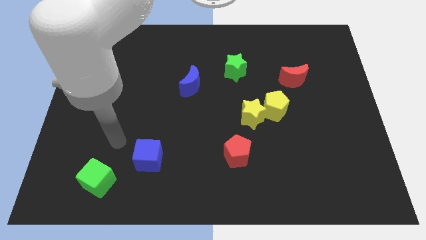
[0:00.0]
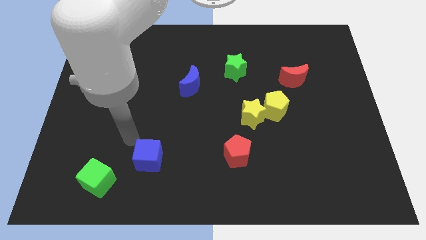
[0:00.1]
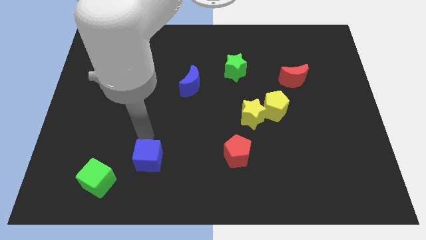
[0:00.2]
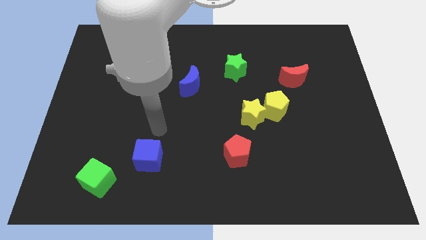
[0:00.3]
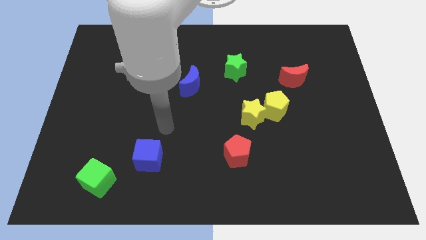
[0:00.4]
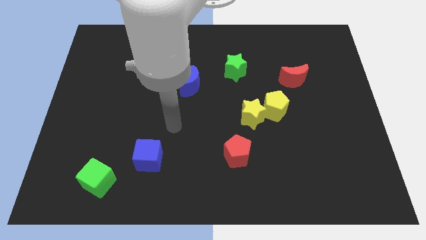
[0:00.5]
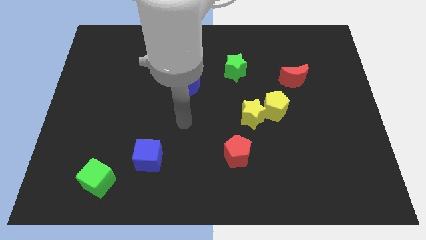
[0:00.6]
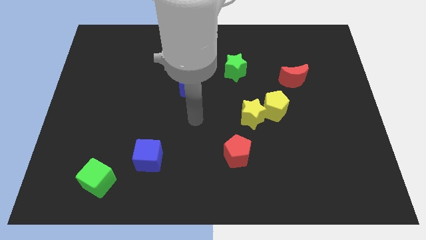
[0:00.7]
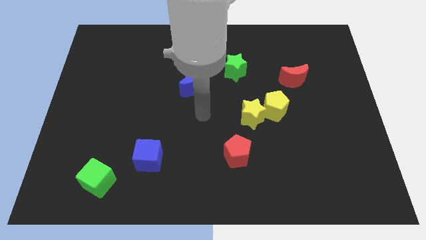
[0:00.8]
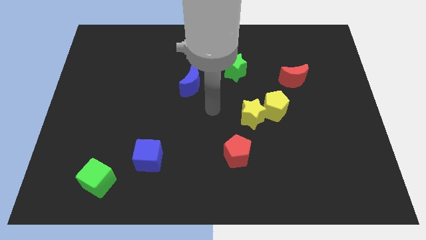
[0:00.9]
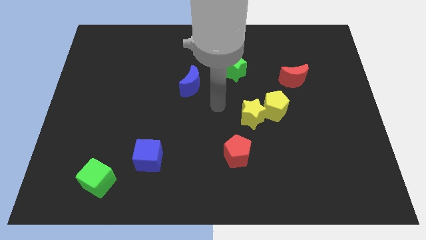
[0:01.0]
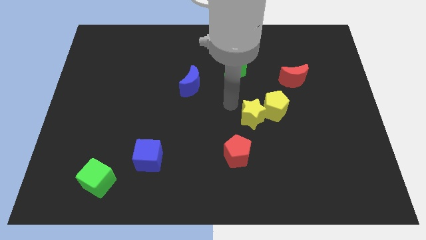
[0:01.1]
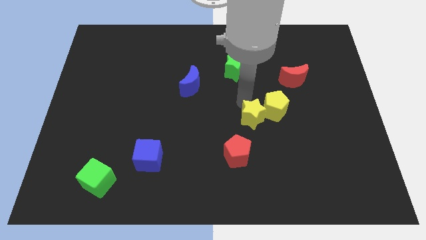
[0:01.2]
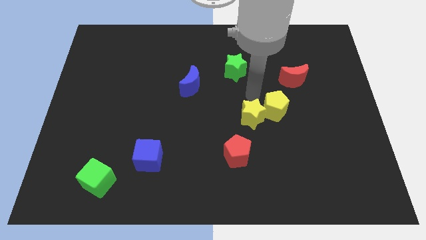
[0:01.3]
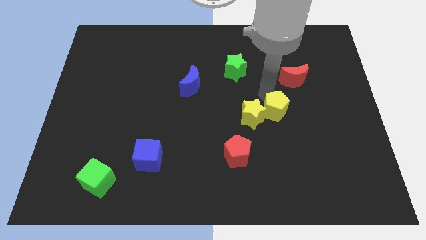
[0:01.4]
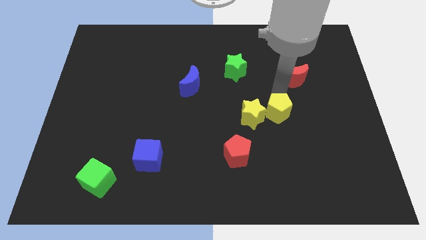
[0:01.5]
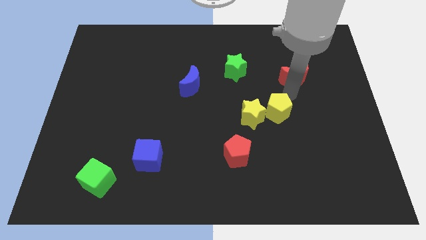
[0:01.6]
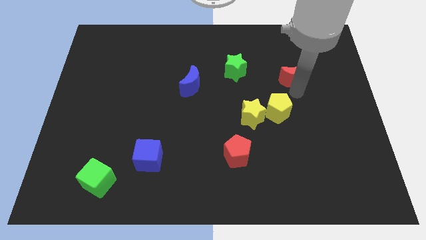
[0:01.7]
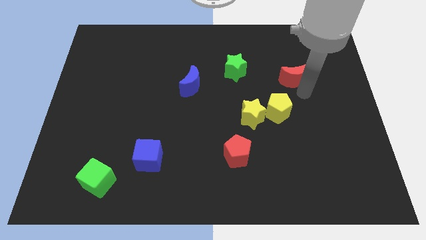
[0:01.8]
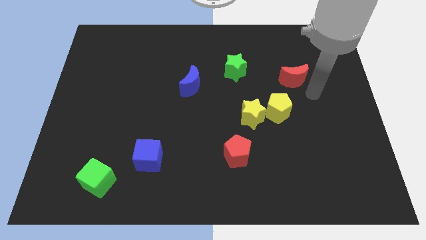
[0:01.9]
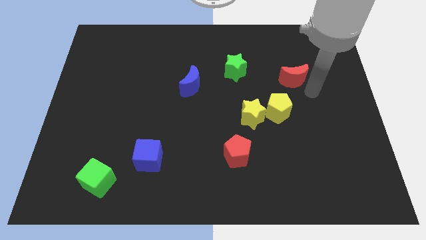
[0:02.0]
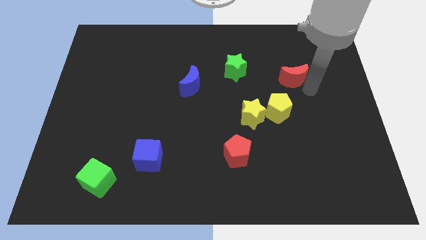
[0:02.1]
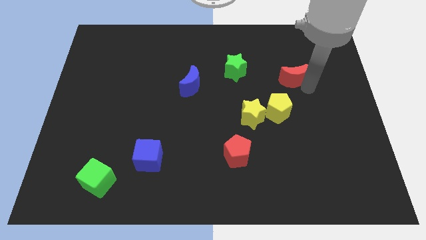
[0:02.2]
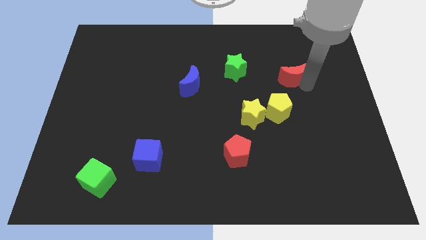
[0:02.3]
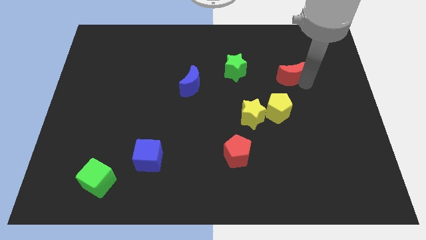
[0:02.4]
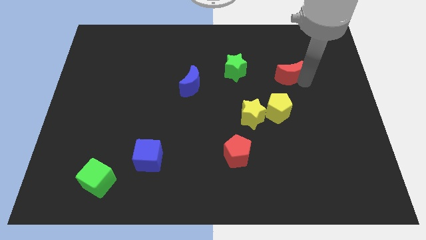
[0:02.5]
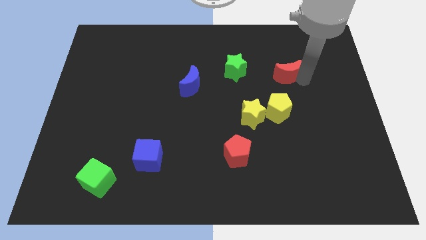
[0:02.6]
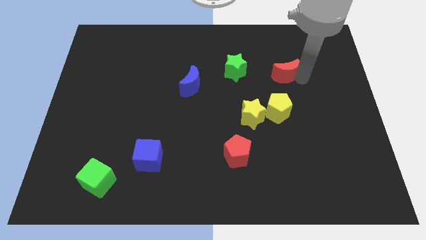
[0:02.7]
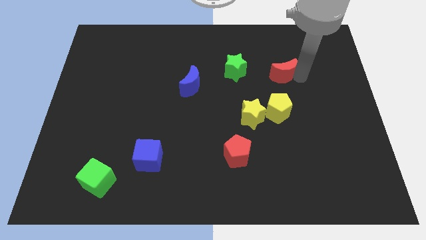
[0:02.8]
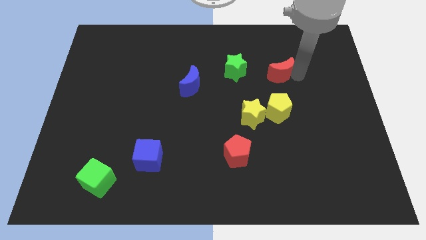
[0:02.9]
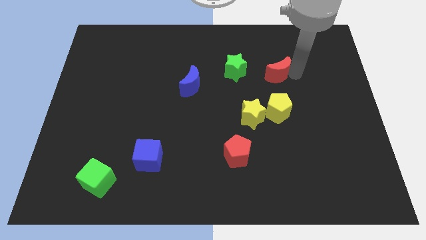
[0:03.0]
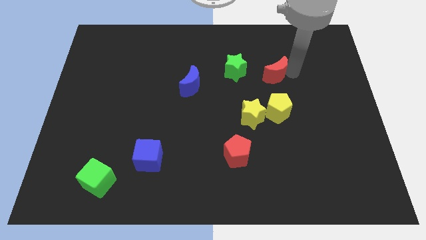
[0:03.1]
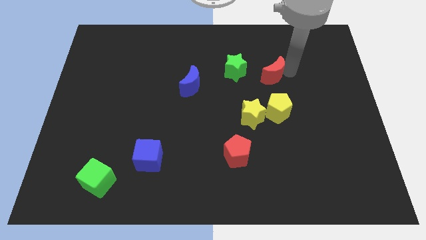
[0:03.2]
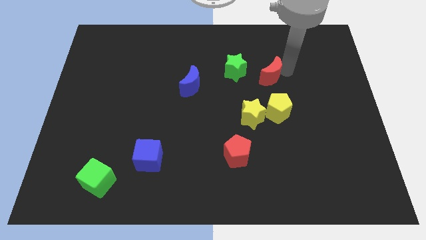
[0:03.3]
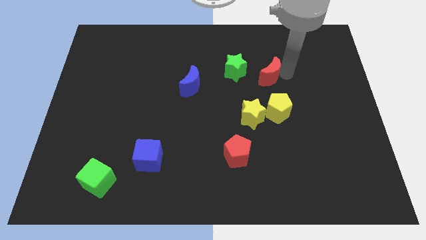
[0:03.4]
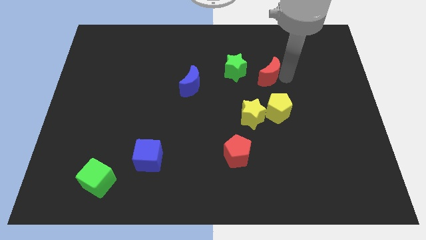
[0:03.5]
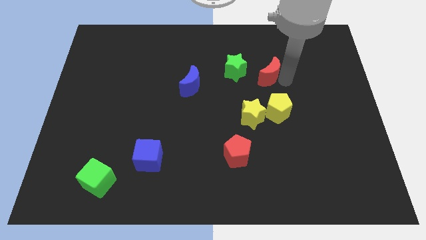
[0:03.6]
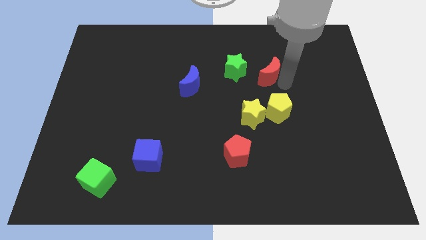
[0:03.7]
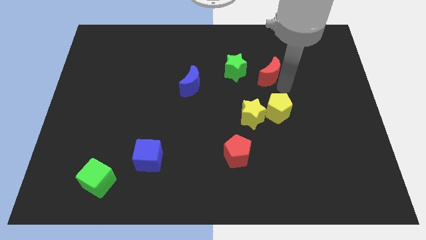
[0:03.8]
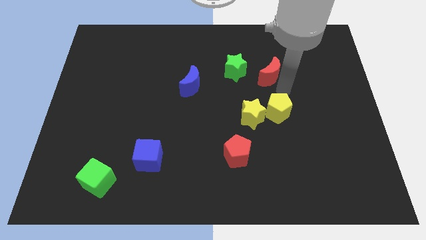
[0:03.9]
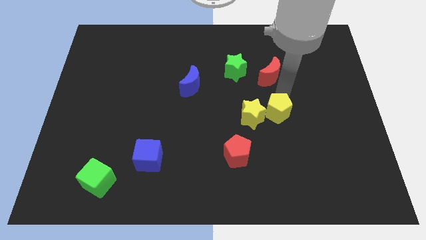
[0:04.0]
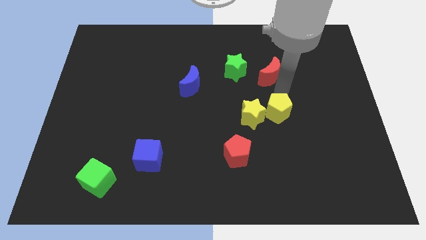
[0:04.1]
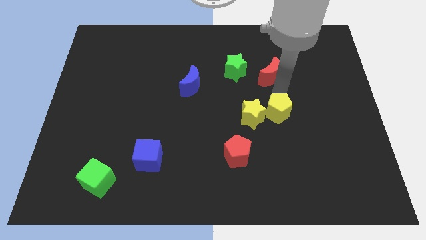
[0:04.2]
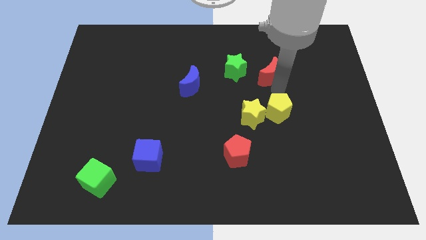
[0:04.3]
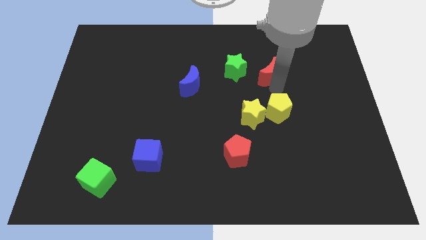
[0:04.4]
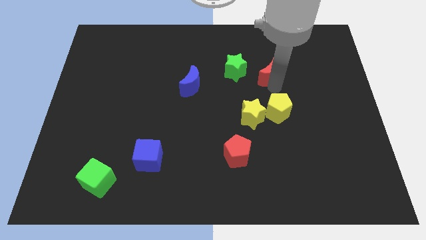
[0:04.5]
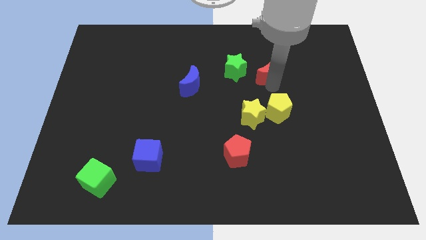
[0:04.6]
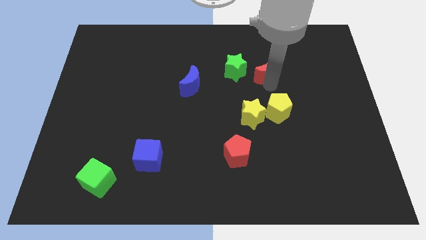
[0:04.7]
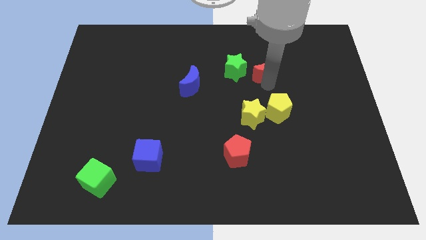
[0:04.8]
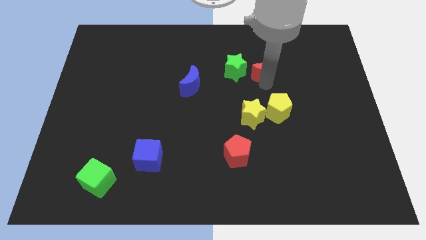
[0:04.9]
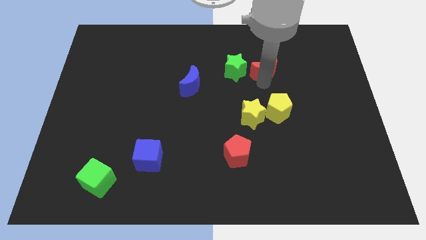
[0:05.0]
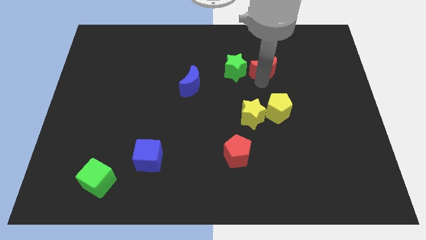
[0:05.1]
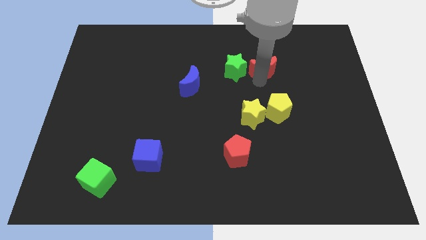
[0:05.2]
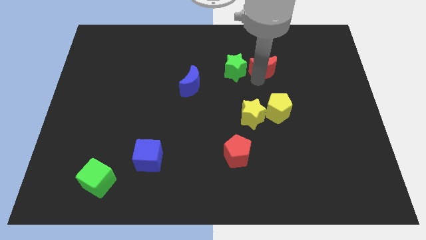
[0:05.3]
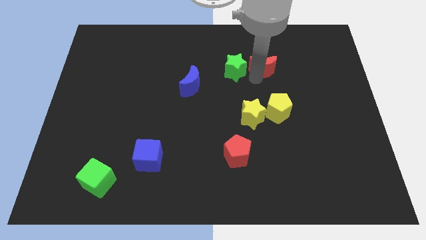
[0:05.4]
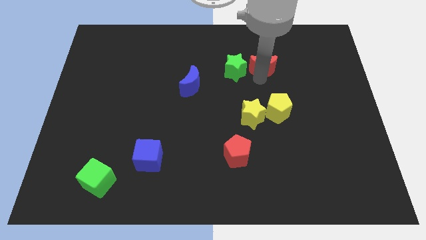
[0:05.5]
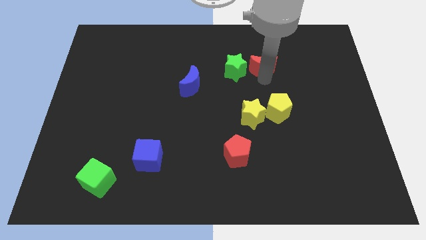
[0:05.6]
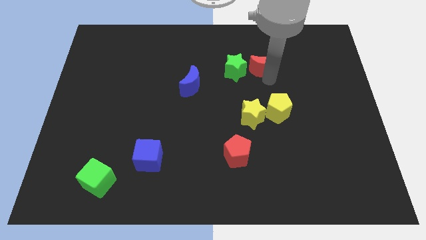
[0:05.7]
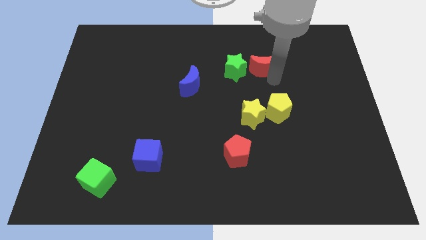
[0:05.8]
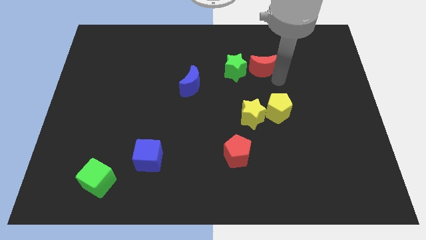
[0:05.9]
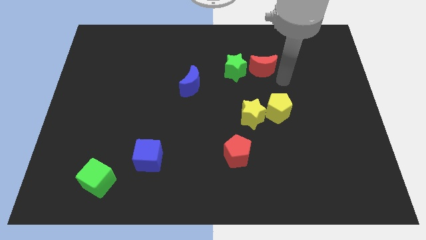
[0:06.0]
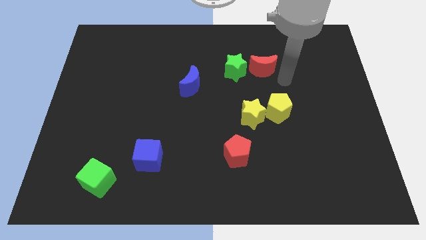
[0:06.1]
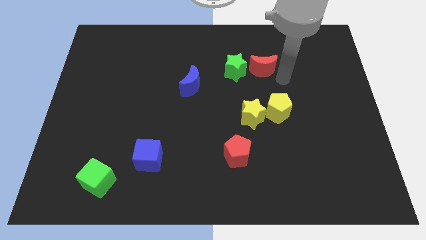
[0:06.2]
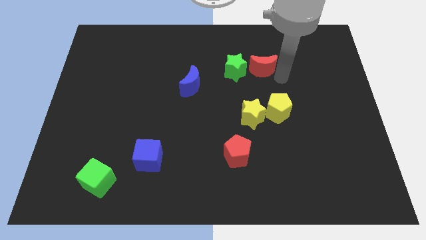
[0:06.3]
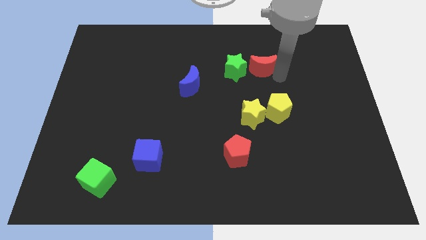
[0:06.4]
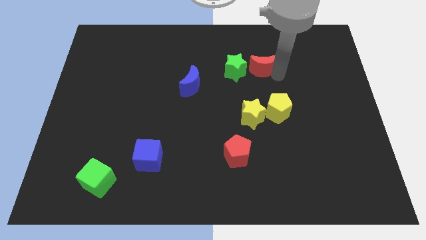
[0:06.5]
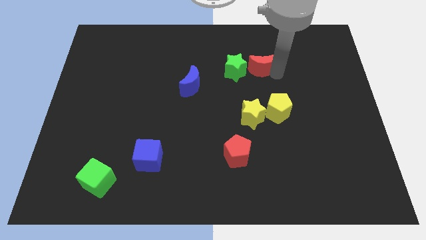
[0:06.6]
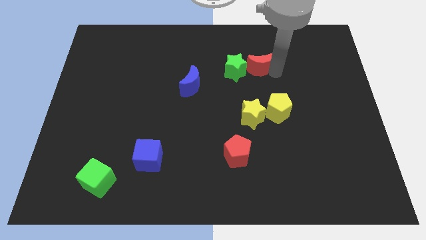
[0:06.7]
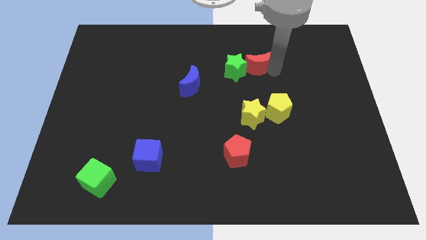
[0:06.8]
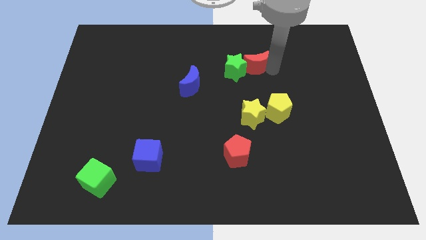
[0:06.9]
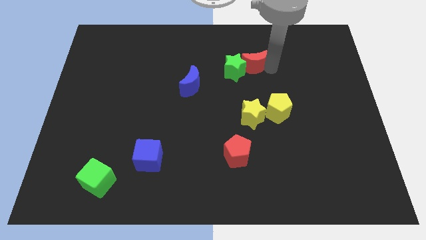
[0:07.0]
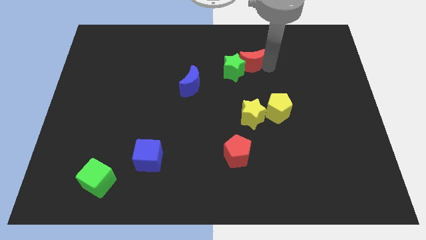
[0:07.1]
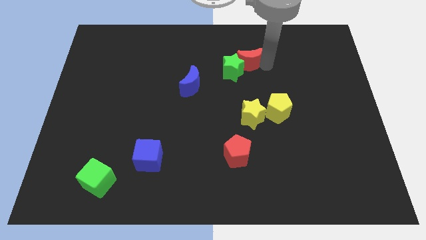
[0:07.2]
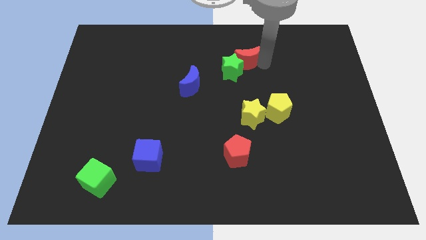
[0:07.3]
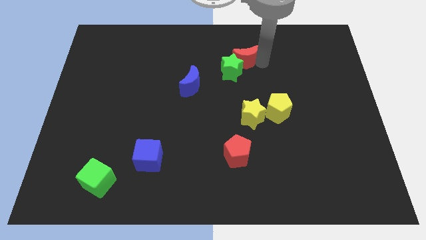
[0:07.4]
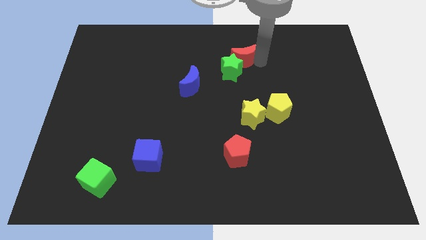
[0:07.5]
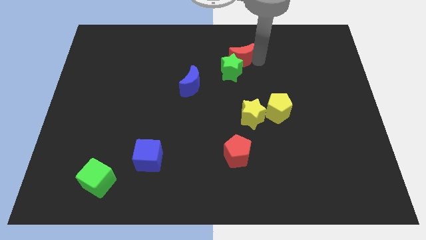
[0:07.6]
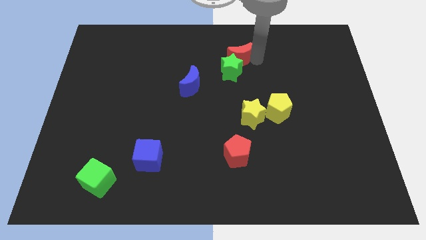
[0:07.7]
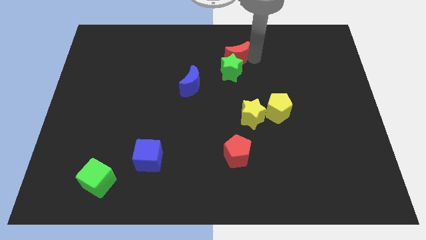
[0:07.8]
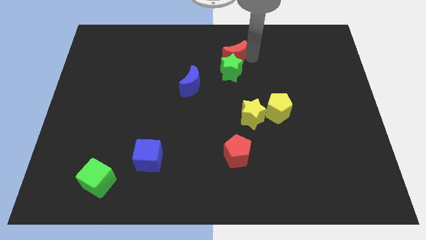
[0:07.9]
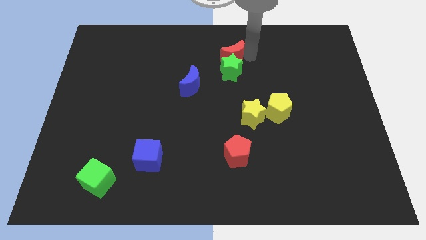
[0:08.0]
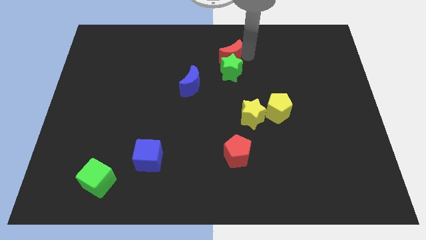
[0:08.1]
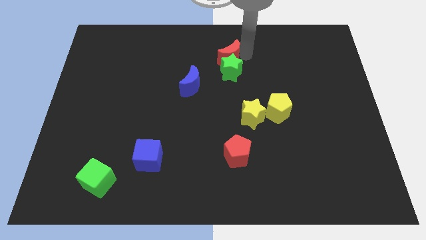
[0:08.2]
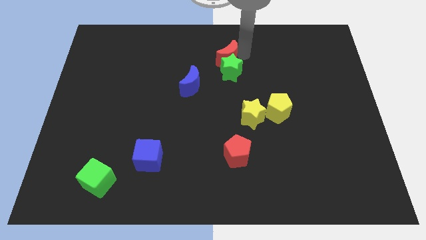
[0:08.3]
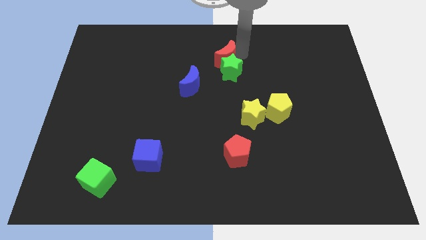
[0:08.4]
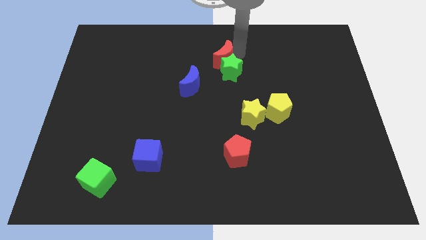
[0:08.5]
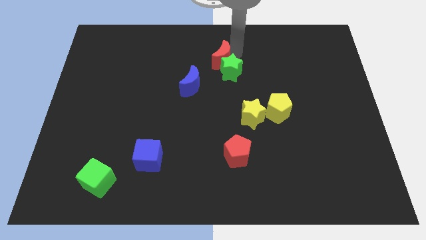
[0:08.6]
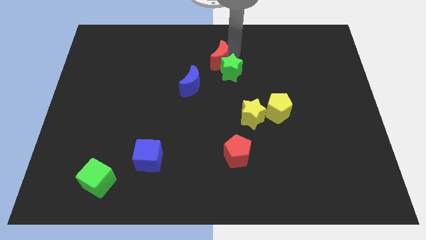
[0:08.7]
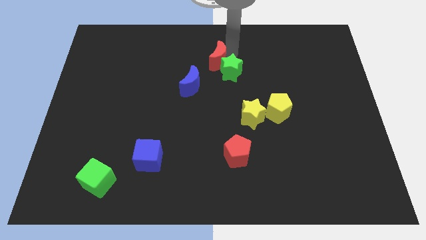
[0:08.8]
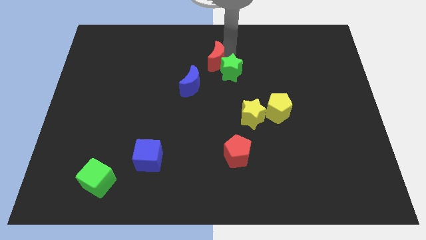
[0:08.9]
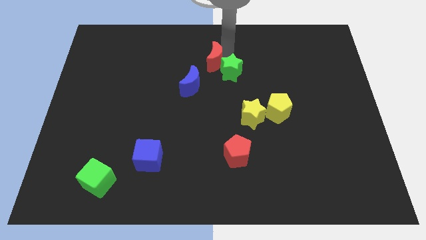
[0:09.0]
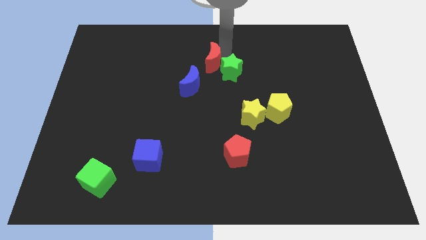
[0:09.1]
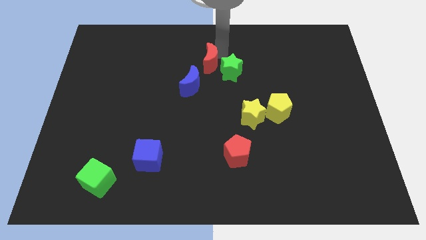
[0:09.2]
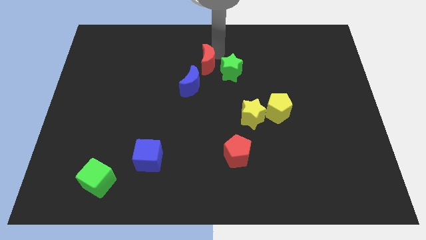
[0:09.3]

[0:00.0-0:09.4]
slide the red moon left
